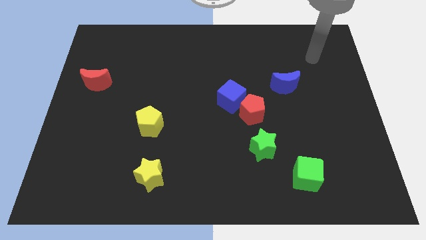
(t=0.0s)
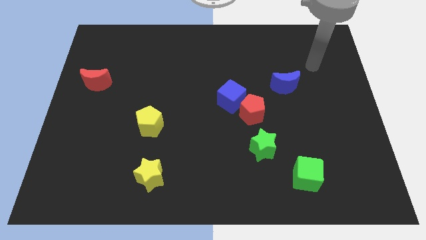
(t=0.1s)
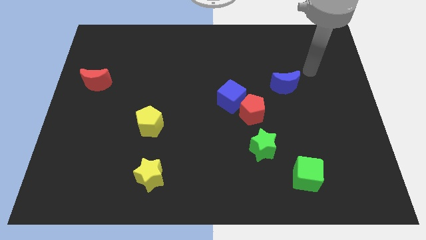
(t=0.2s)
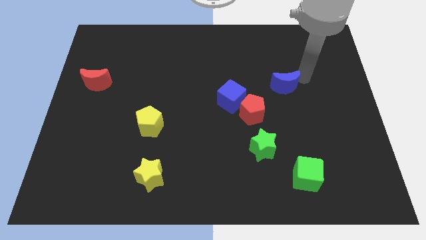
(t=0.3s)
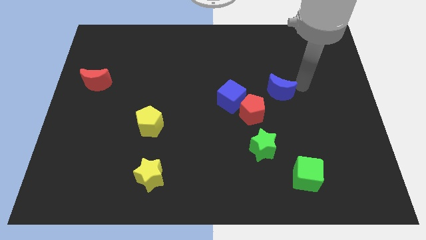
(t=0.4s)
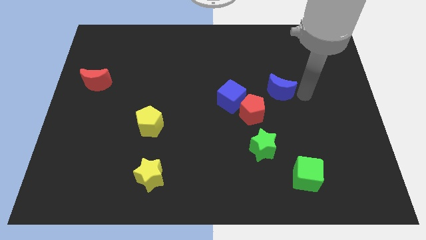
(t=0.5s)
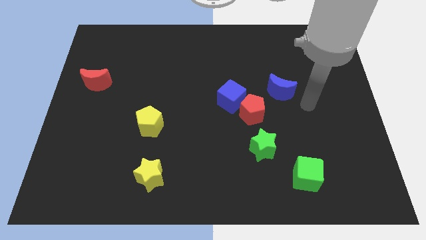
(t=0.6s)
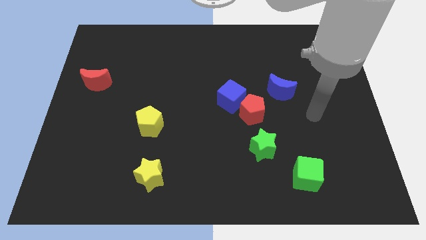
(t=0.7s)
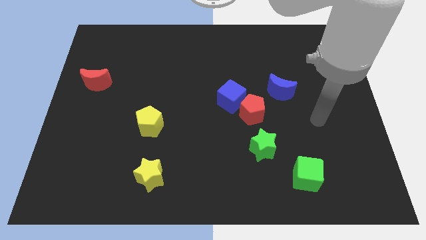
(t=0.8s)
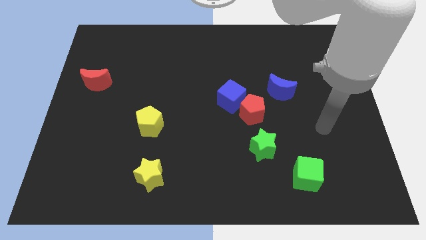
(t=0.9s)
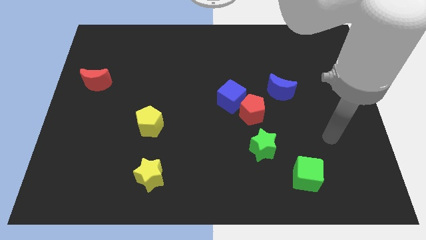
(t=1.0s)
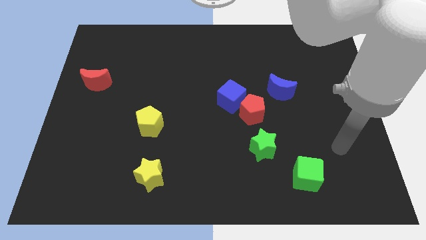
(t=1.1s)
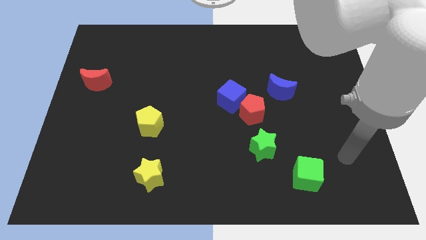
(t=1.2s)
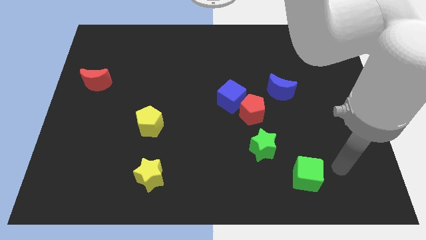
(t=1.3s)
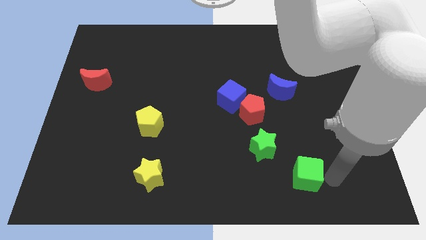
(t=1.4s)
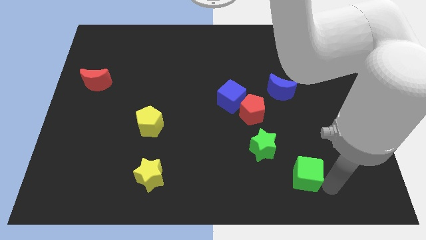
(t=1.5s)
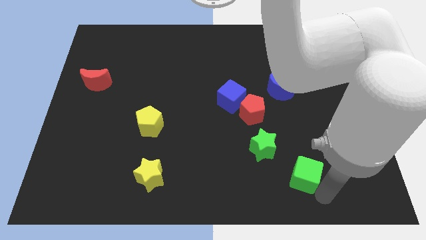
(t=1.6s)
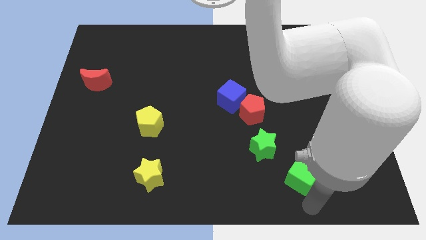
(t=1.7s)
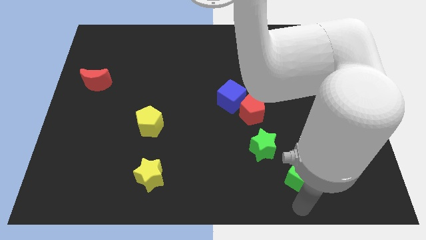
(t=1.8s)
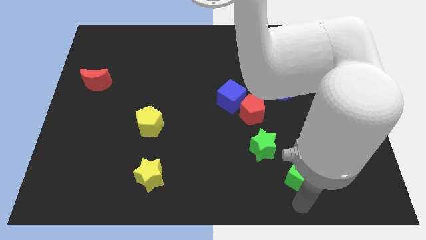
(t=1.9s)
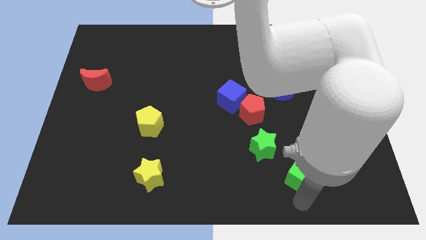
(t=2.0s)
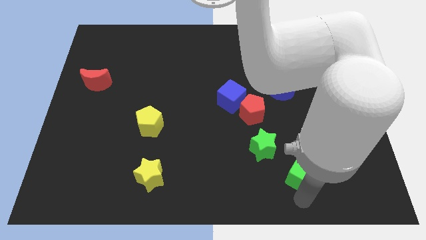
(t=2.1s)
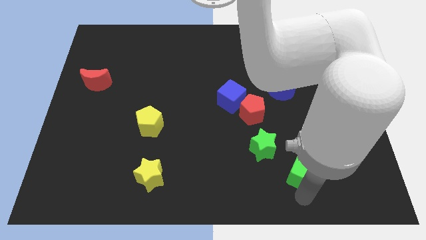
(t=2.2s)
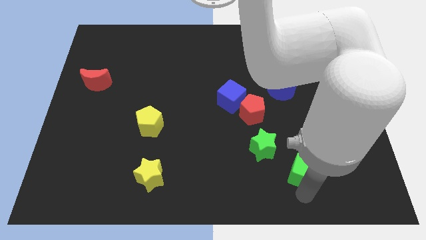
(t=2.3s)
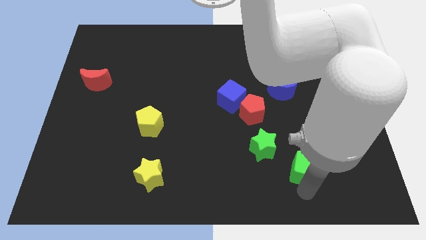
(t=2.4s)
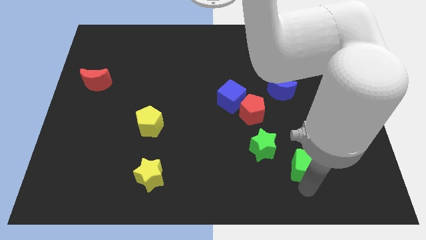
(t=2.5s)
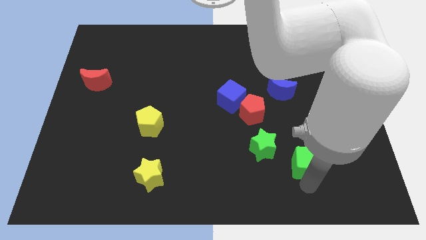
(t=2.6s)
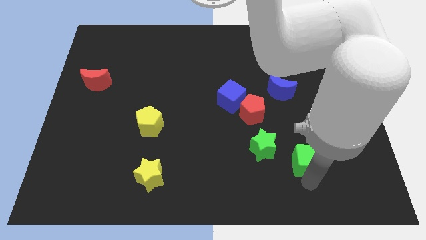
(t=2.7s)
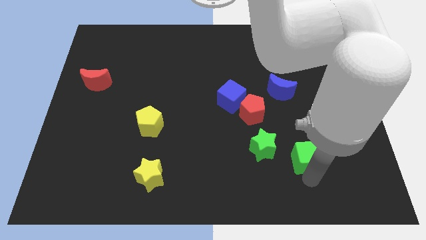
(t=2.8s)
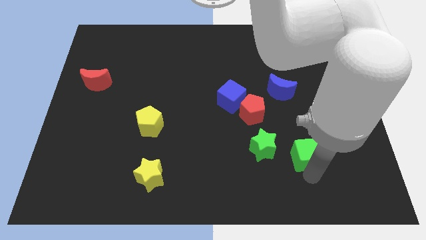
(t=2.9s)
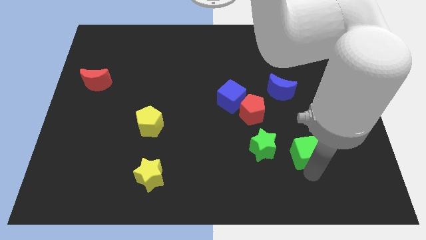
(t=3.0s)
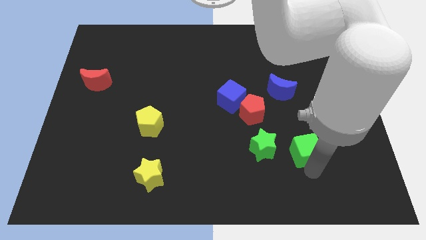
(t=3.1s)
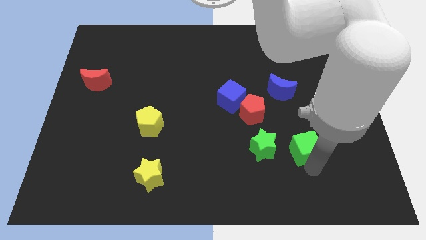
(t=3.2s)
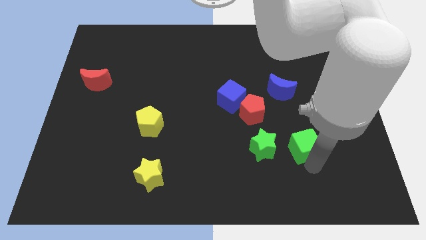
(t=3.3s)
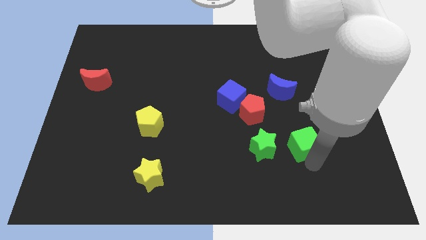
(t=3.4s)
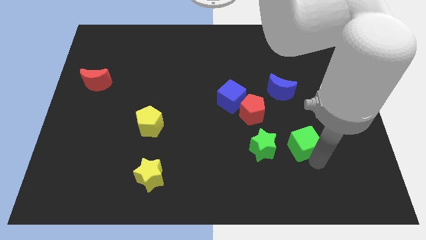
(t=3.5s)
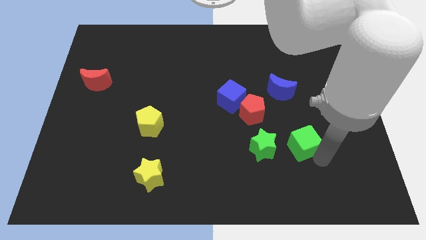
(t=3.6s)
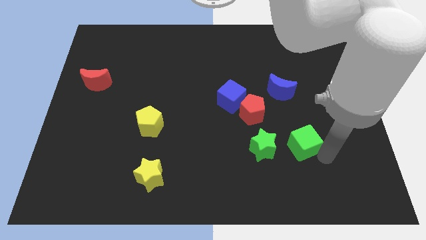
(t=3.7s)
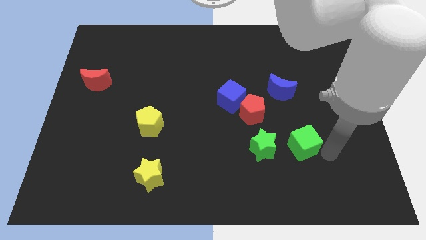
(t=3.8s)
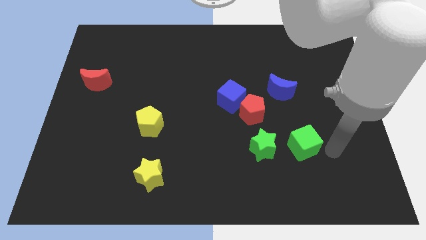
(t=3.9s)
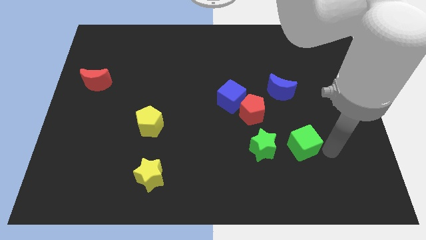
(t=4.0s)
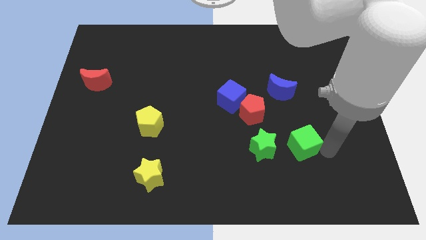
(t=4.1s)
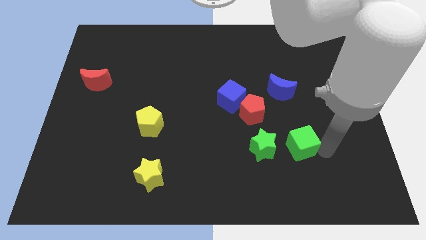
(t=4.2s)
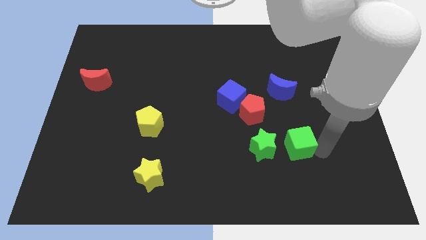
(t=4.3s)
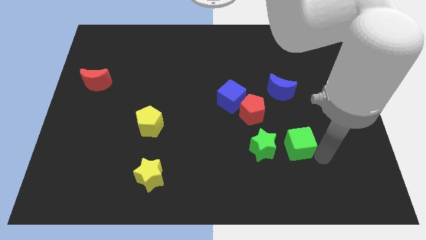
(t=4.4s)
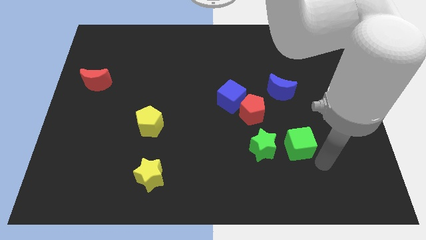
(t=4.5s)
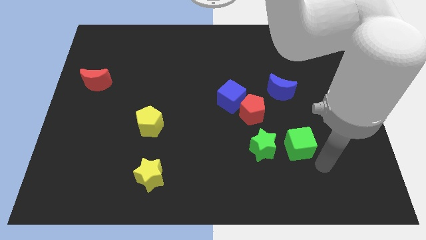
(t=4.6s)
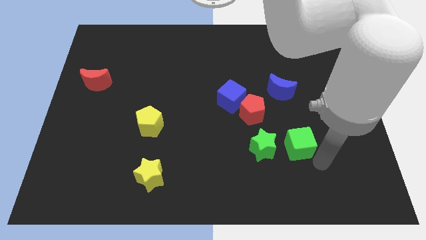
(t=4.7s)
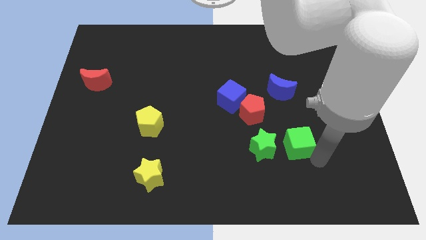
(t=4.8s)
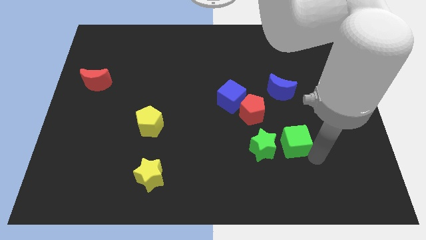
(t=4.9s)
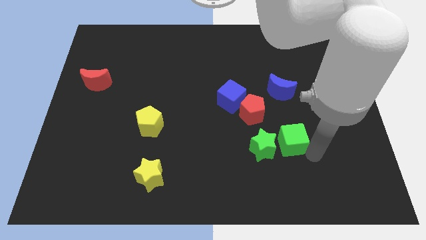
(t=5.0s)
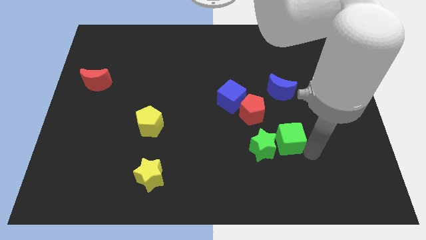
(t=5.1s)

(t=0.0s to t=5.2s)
move the green cube a bit up and to the left

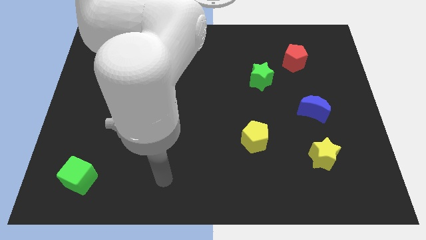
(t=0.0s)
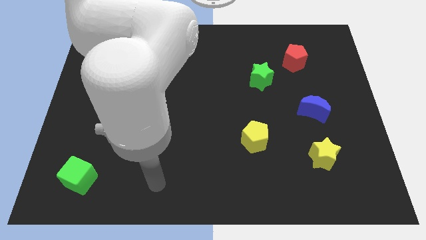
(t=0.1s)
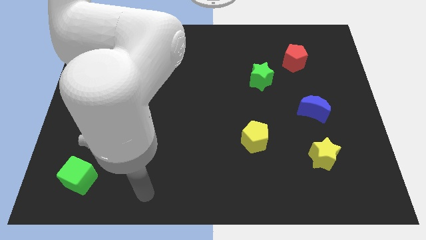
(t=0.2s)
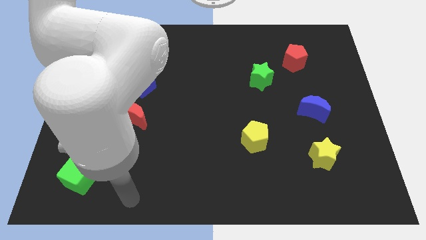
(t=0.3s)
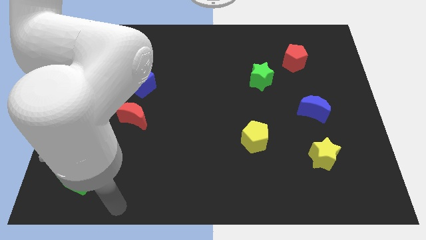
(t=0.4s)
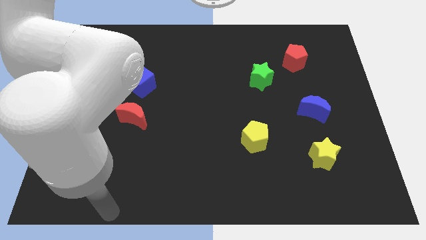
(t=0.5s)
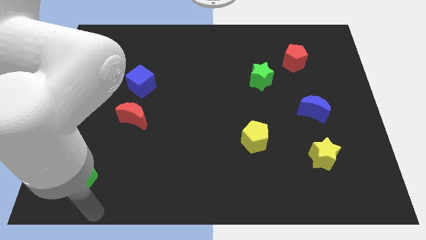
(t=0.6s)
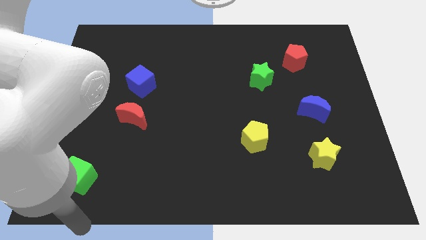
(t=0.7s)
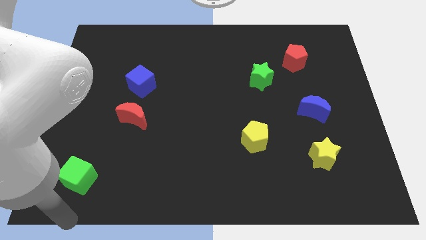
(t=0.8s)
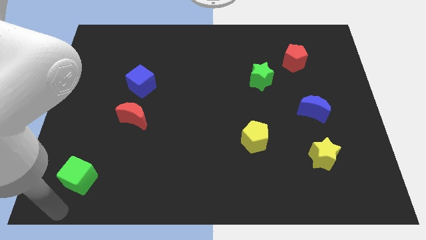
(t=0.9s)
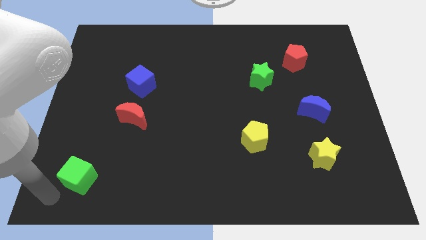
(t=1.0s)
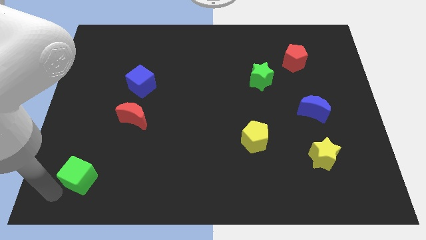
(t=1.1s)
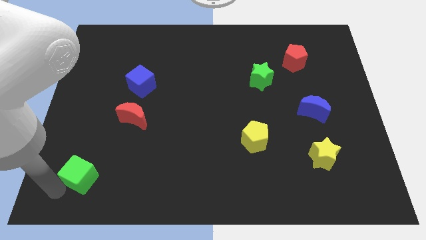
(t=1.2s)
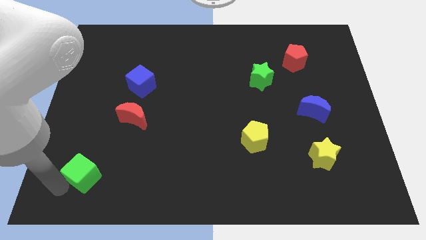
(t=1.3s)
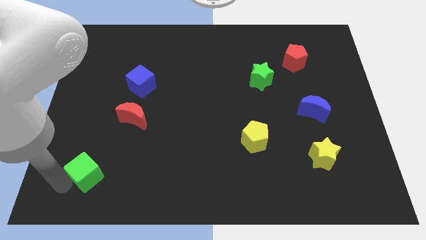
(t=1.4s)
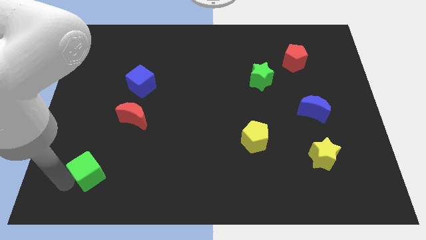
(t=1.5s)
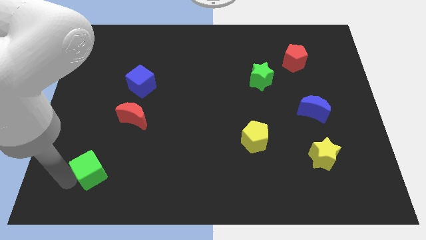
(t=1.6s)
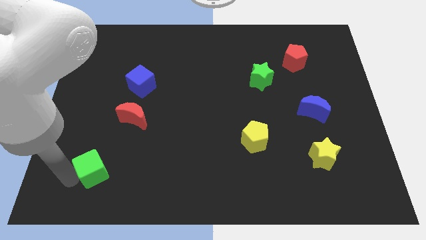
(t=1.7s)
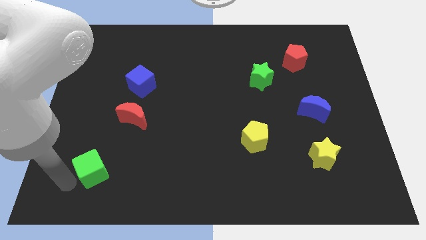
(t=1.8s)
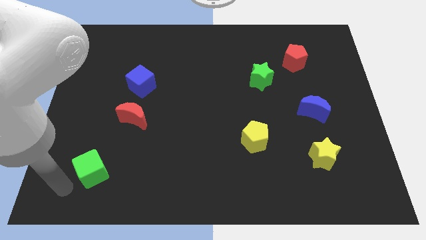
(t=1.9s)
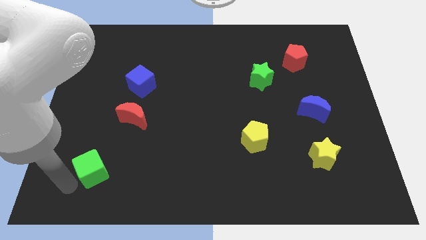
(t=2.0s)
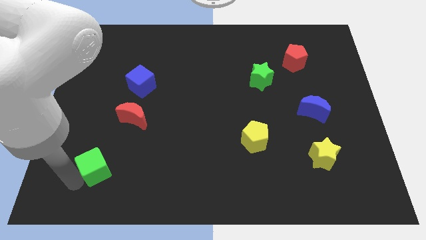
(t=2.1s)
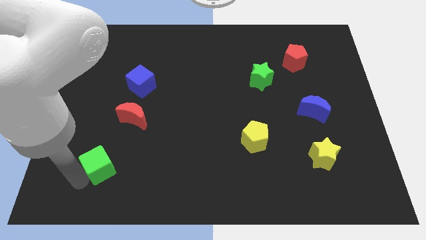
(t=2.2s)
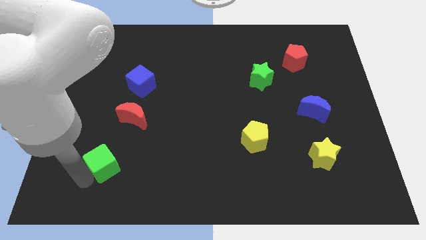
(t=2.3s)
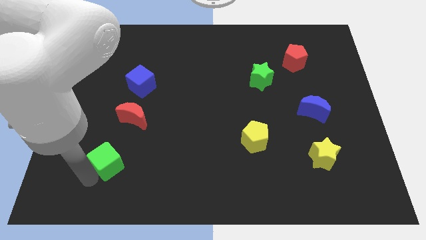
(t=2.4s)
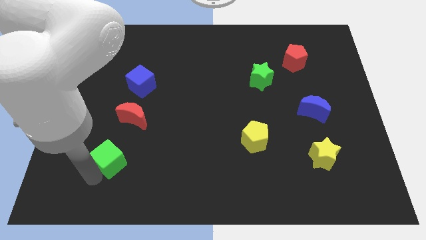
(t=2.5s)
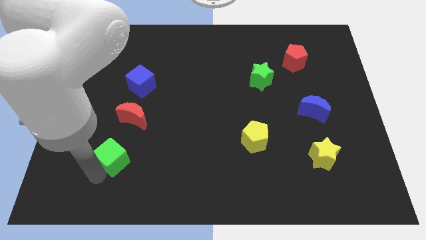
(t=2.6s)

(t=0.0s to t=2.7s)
slide the green cube up and to the right diagonally somewhat

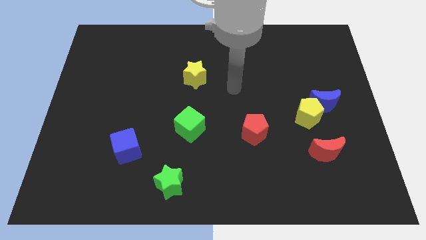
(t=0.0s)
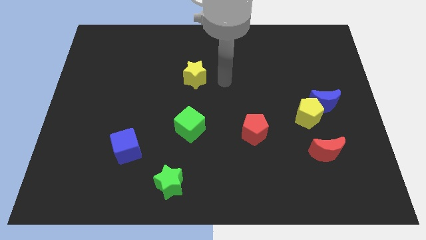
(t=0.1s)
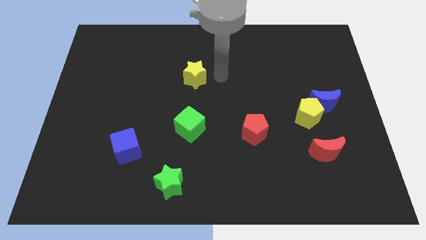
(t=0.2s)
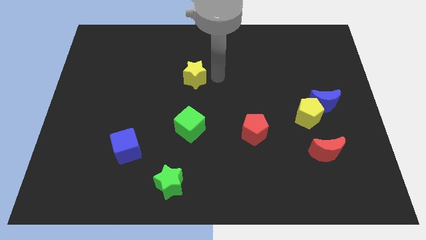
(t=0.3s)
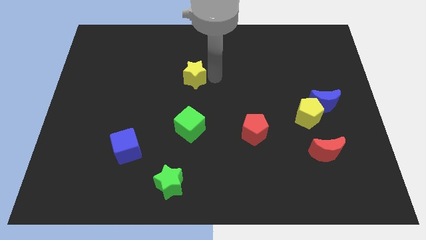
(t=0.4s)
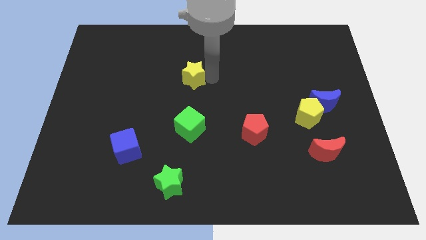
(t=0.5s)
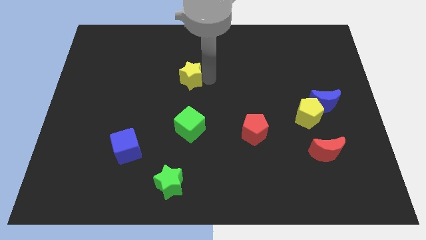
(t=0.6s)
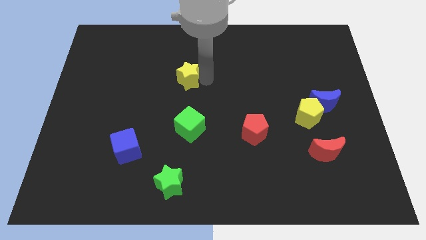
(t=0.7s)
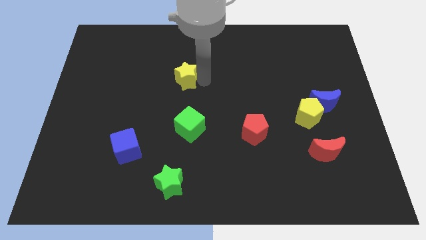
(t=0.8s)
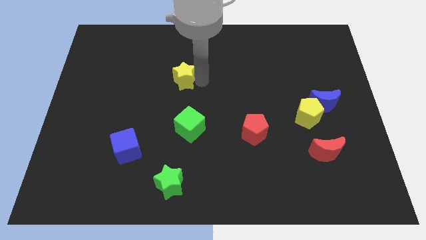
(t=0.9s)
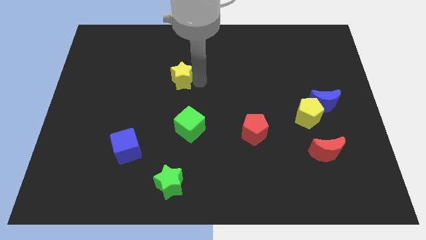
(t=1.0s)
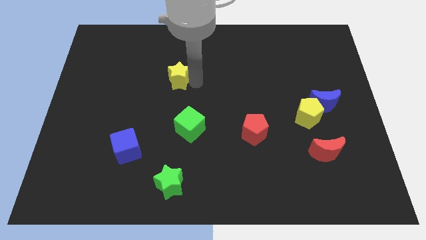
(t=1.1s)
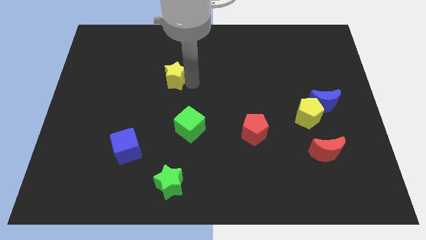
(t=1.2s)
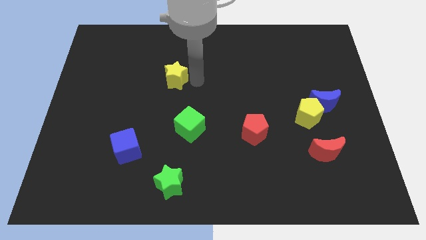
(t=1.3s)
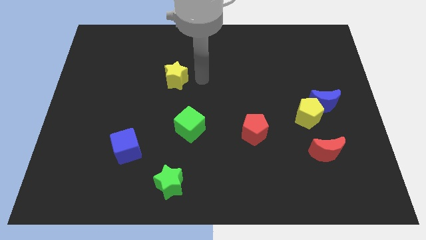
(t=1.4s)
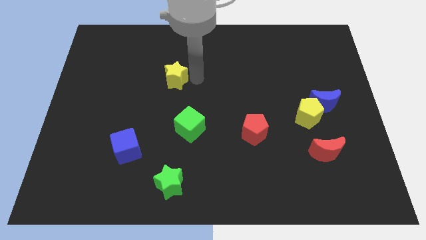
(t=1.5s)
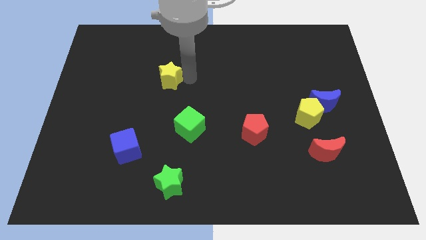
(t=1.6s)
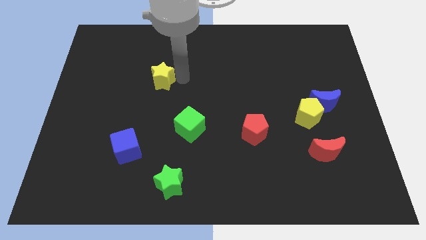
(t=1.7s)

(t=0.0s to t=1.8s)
push the yellow star left slightly
